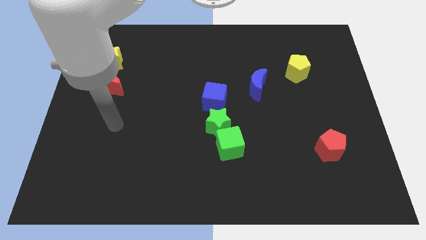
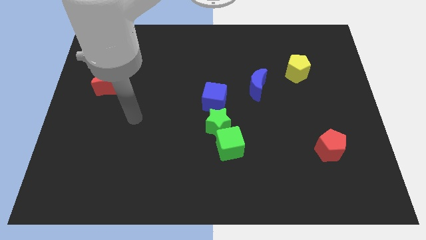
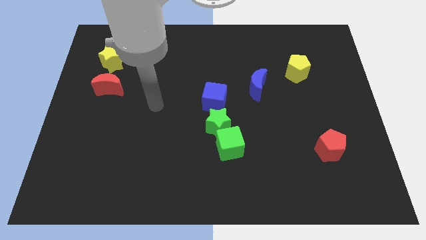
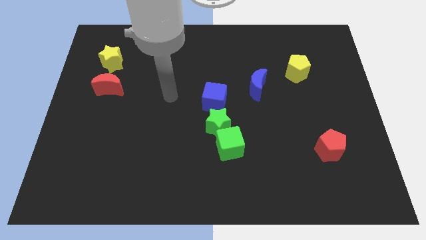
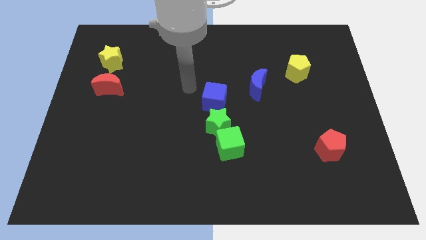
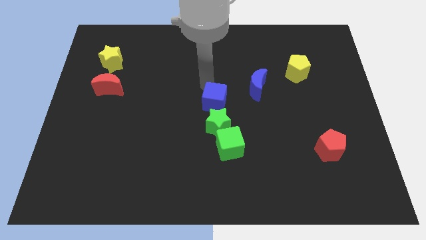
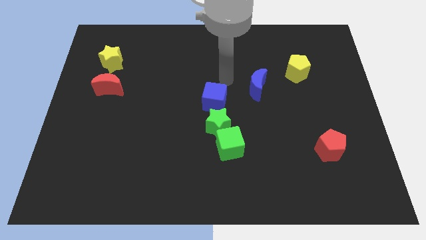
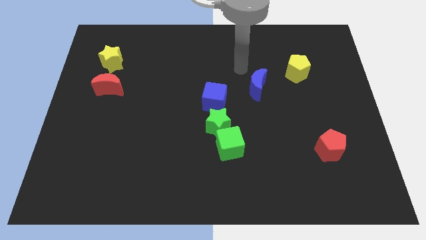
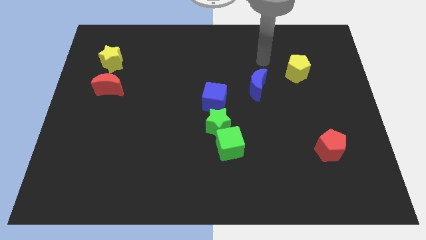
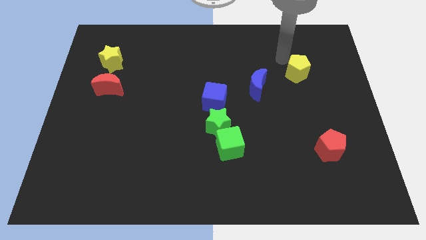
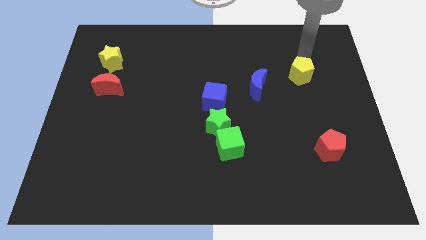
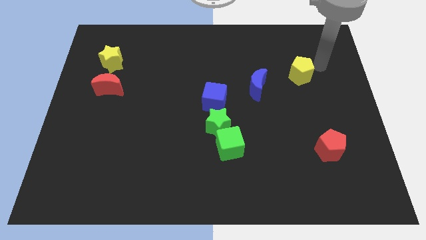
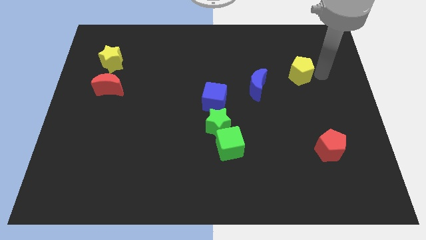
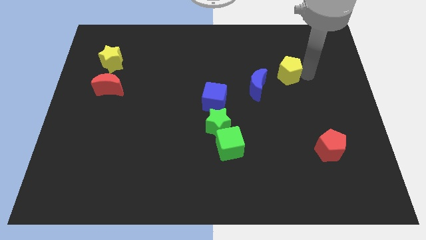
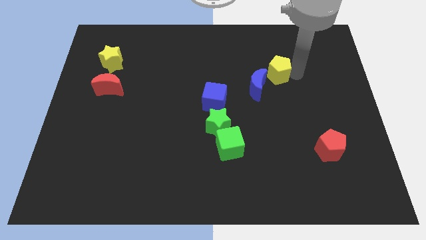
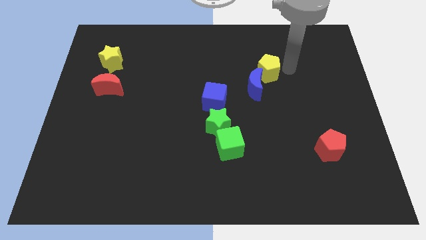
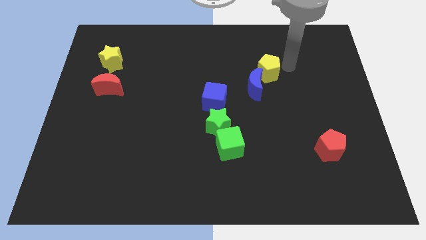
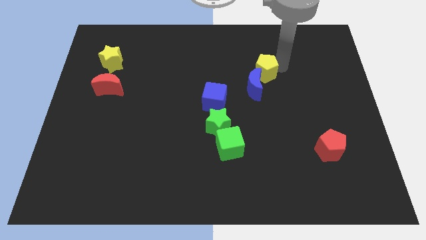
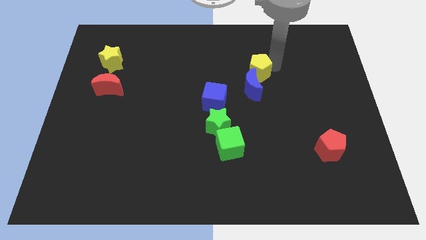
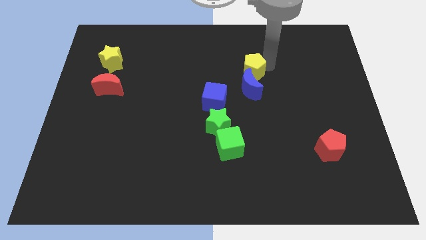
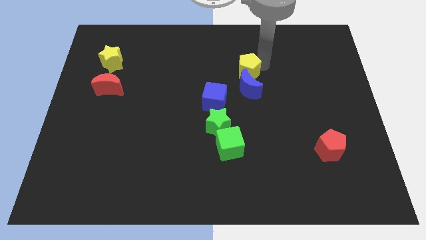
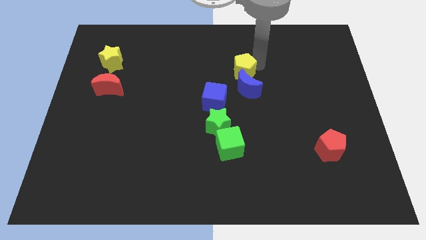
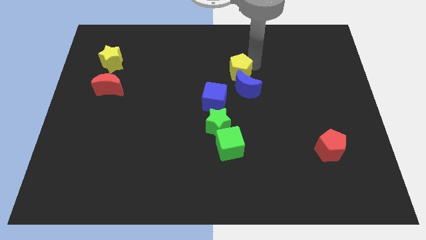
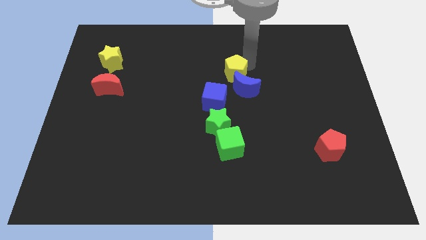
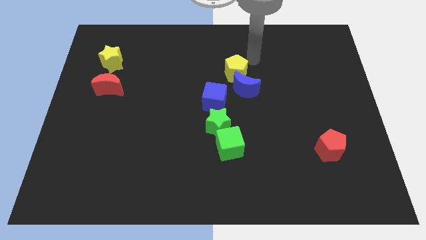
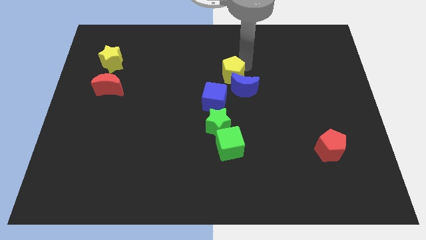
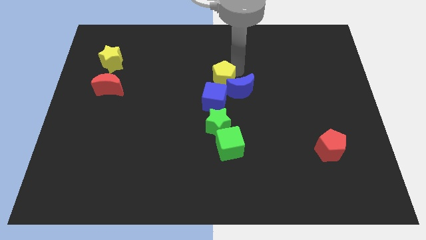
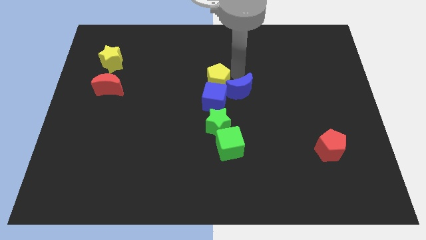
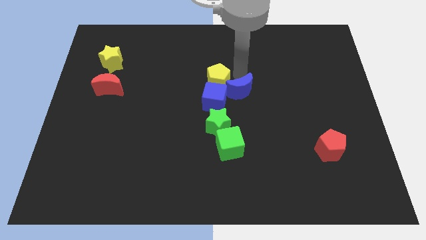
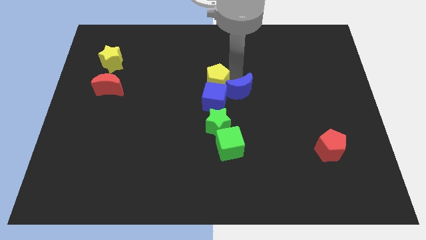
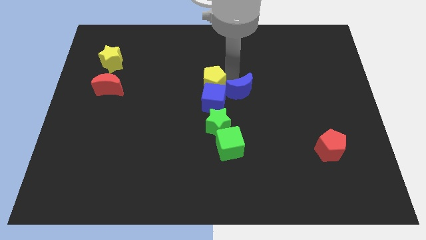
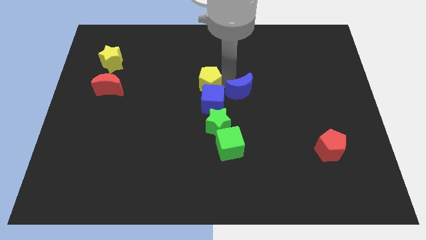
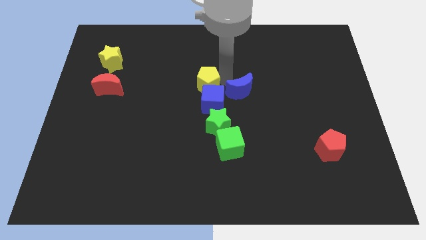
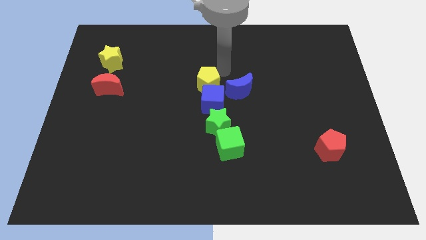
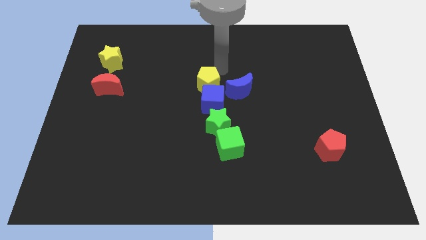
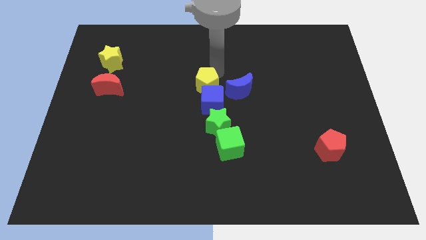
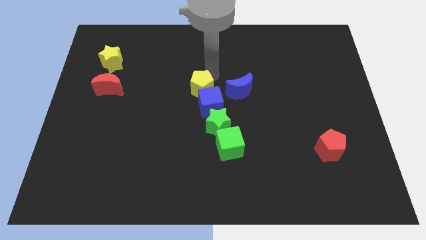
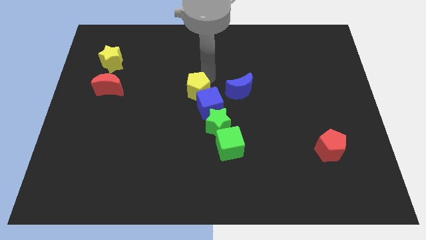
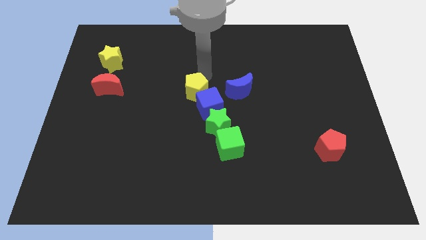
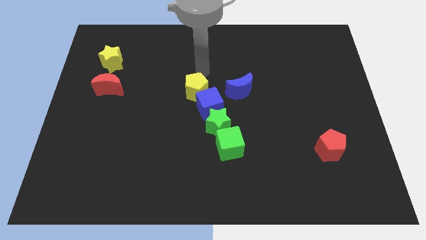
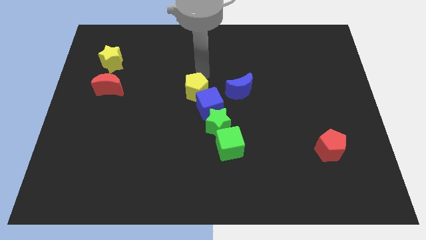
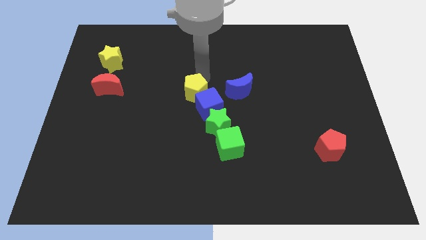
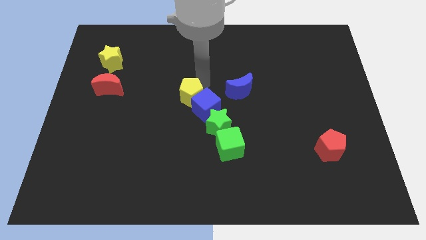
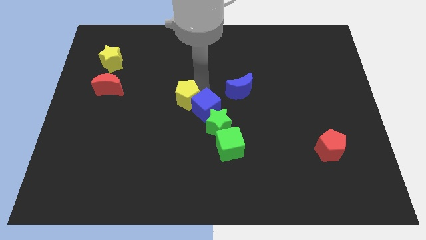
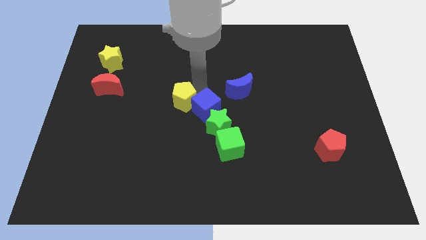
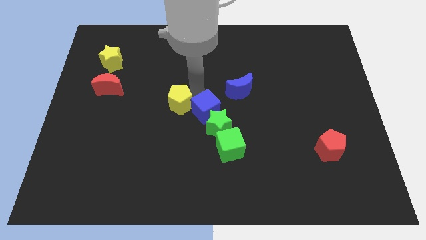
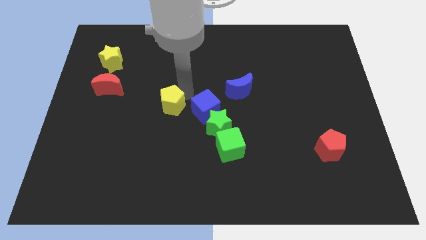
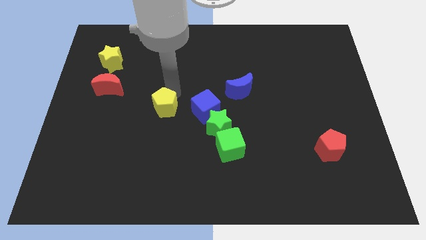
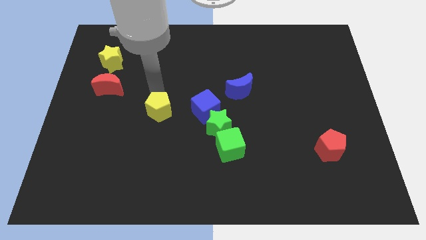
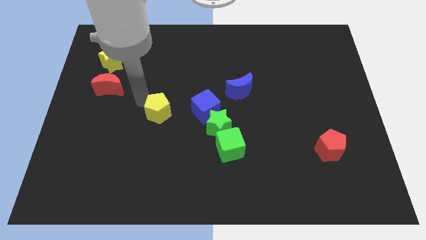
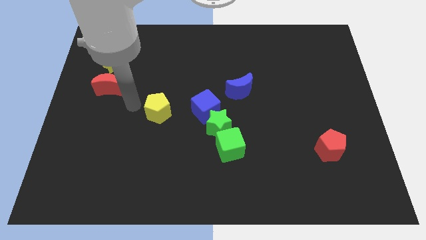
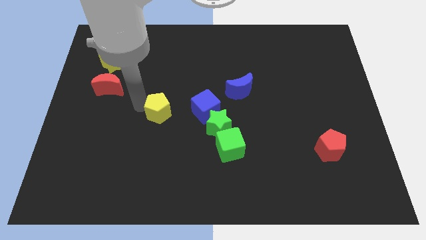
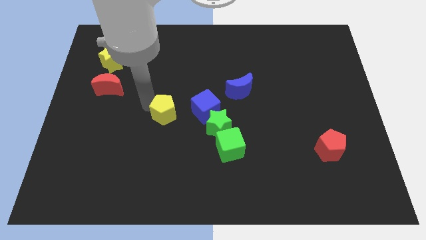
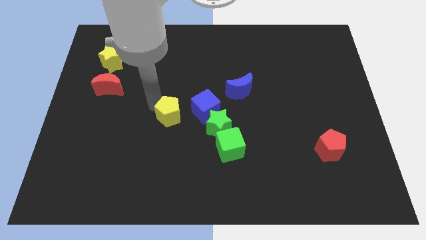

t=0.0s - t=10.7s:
slide the yellow pentagon down and left diagonally

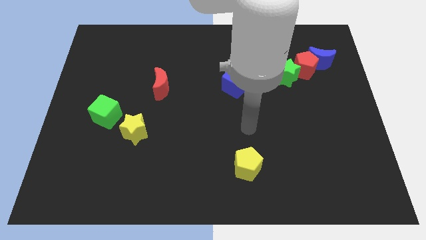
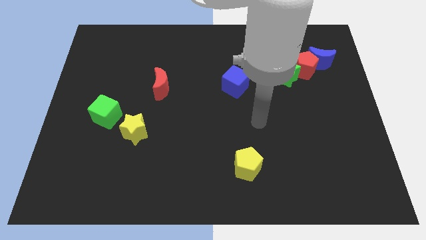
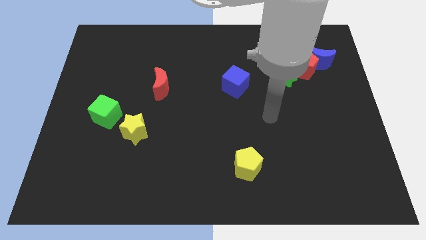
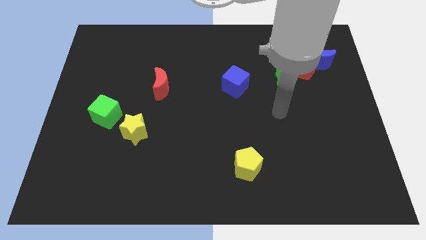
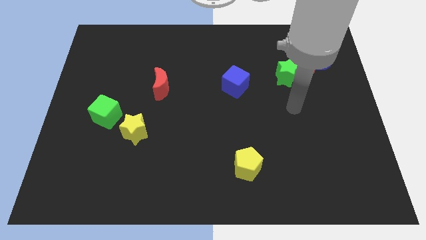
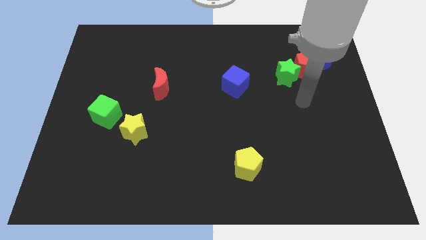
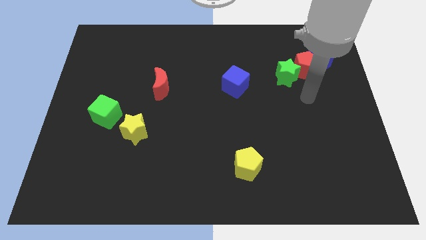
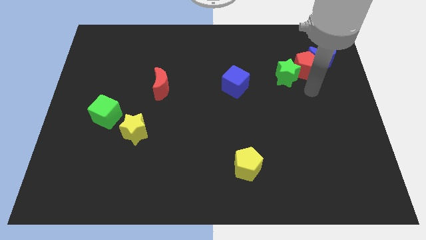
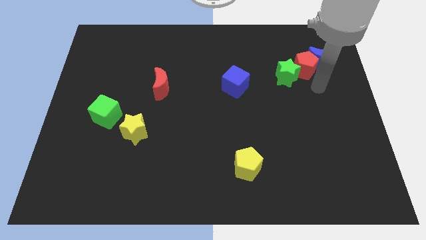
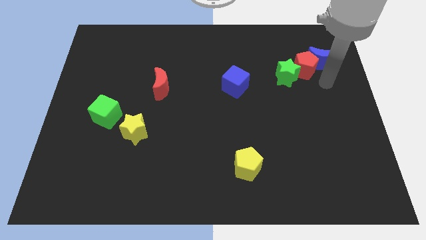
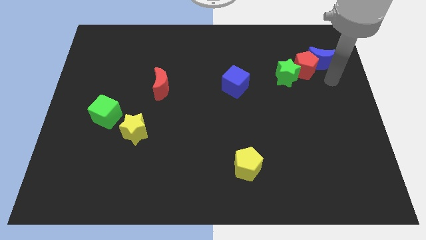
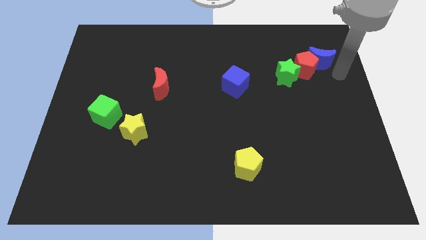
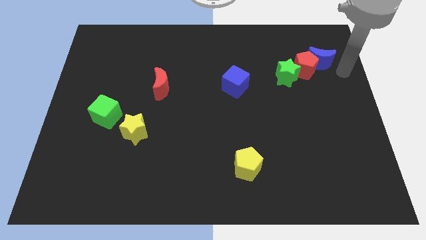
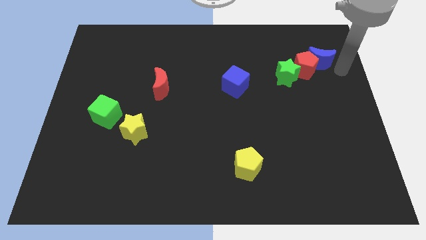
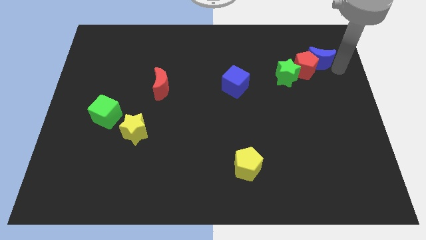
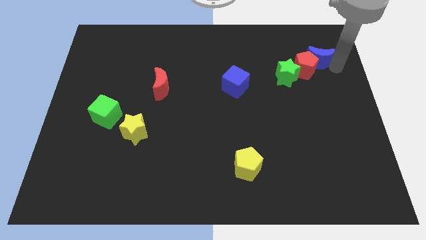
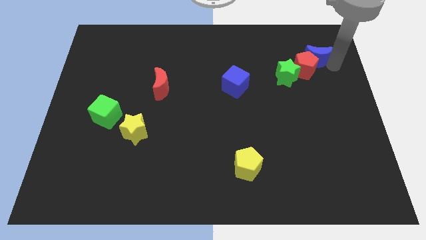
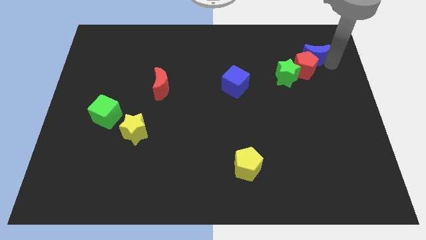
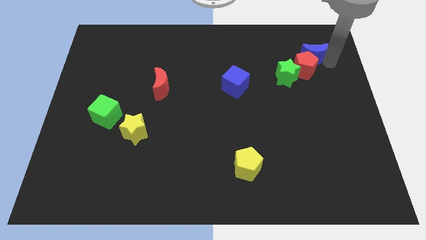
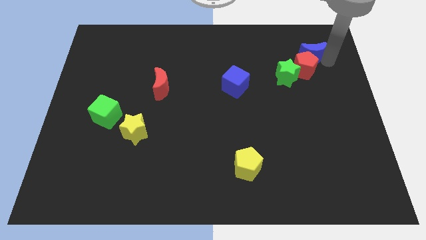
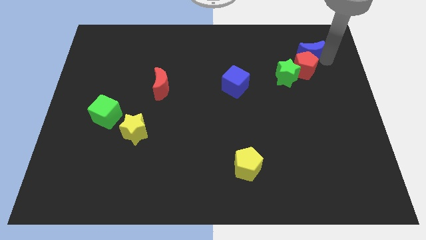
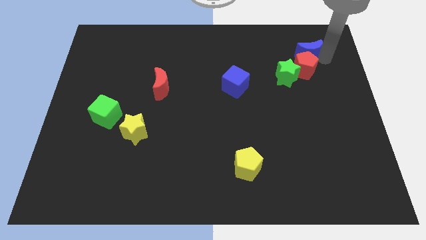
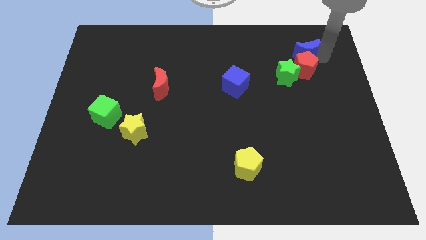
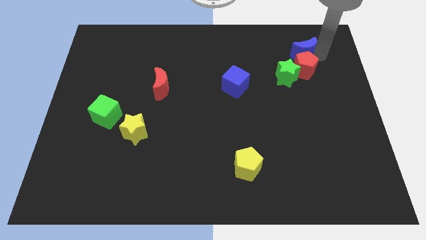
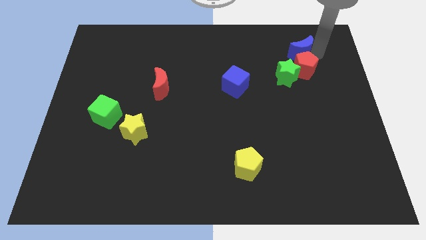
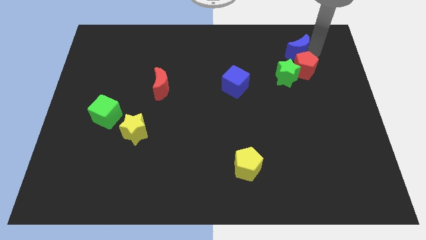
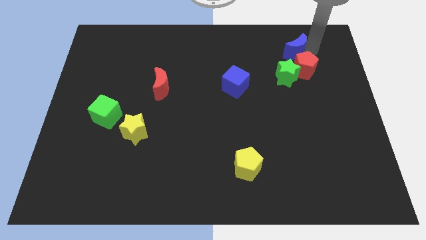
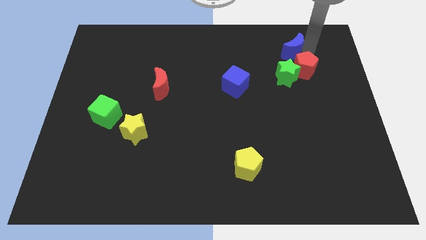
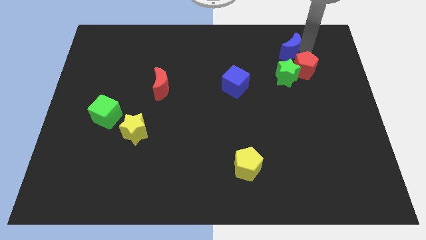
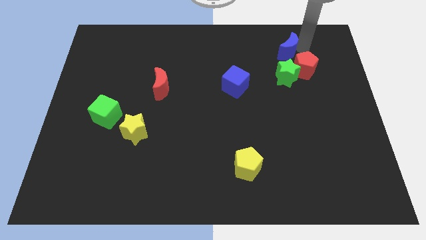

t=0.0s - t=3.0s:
push the blue moon a bit left

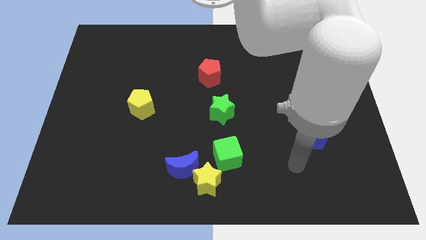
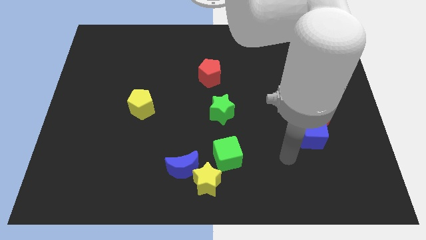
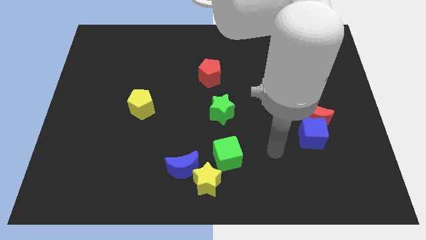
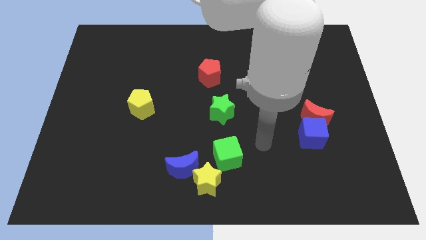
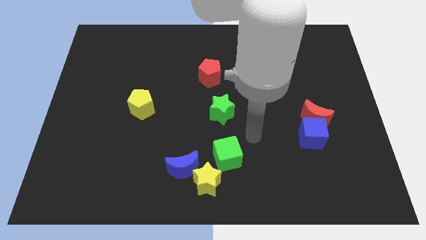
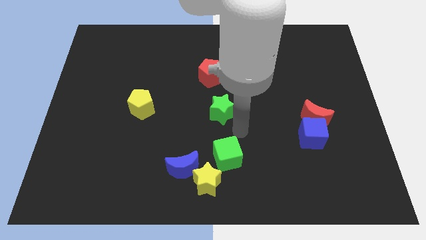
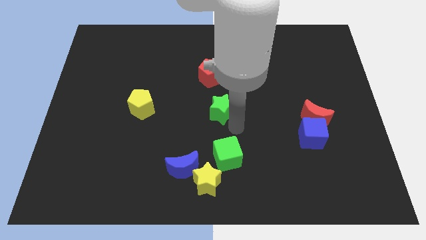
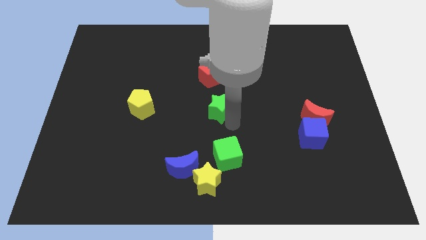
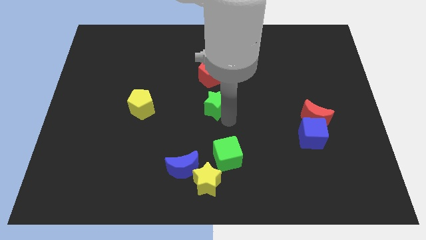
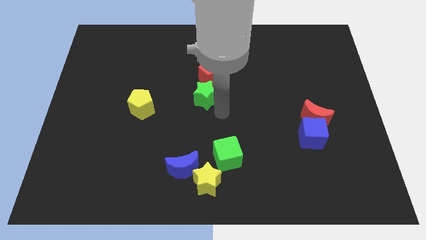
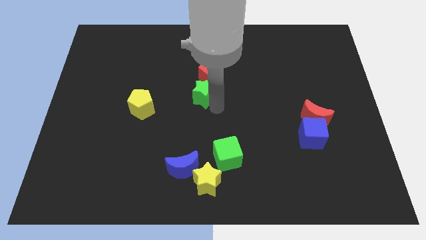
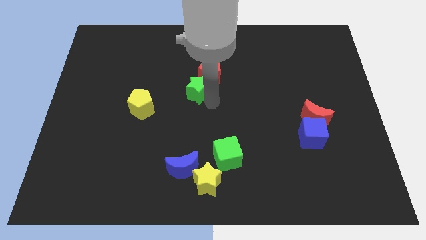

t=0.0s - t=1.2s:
move the green star a bit up and then to the left
